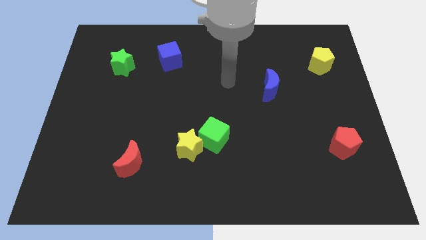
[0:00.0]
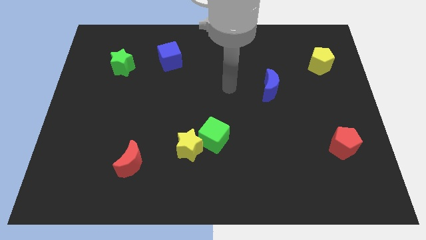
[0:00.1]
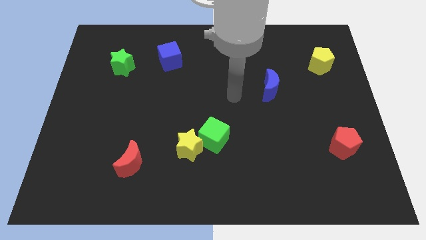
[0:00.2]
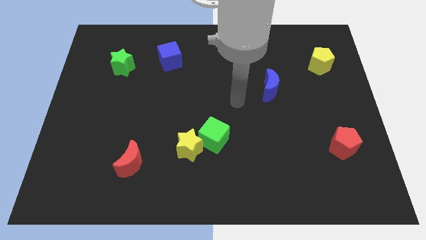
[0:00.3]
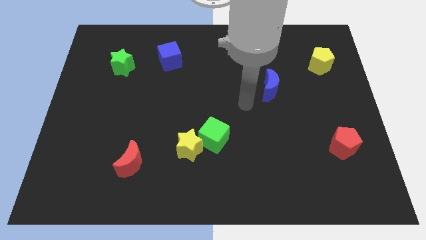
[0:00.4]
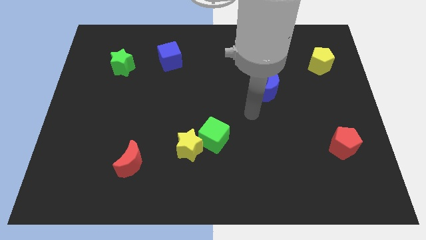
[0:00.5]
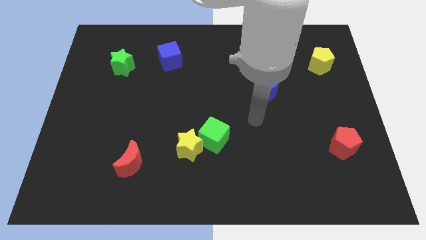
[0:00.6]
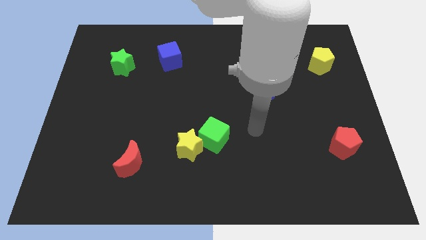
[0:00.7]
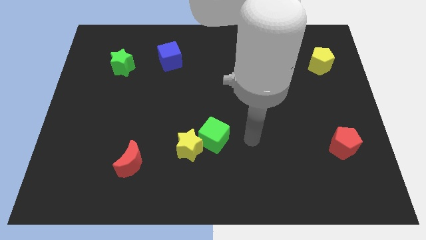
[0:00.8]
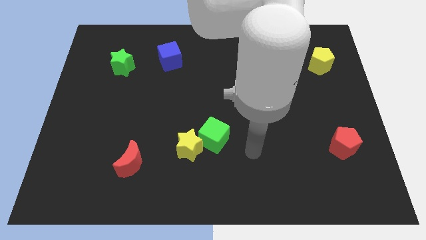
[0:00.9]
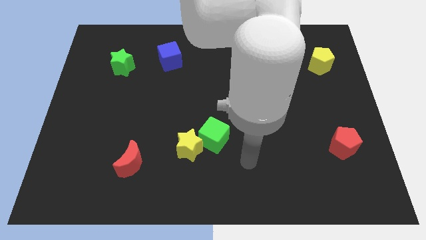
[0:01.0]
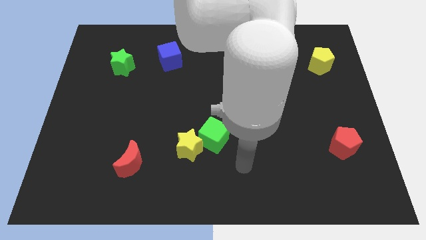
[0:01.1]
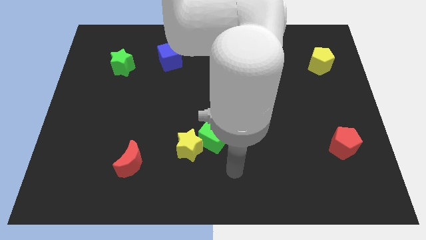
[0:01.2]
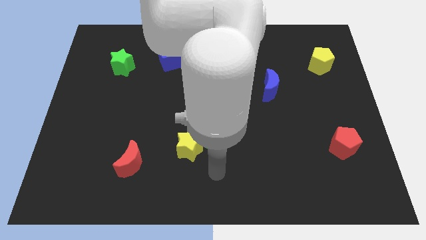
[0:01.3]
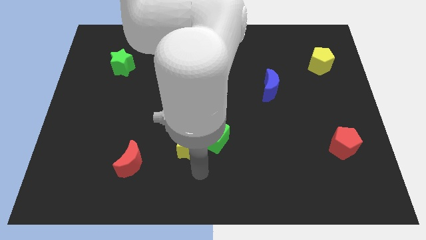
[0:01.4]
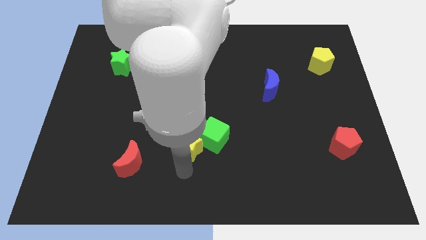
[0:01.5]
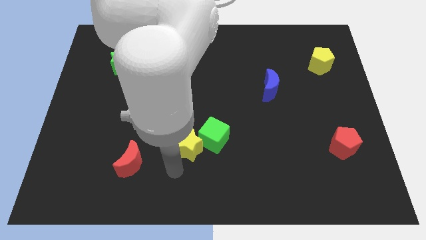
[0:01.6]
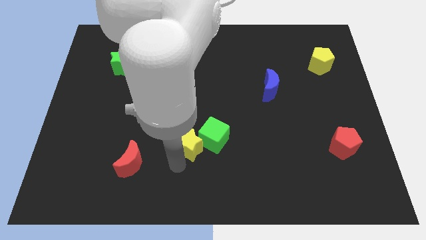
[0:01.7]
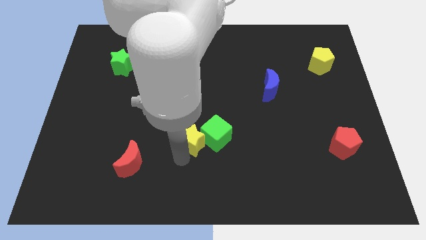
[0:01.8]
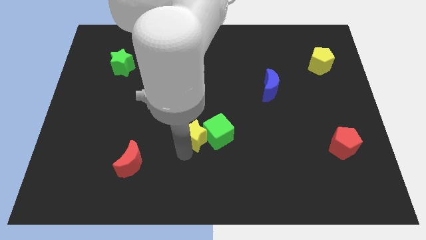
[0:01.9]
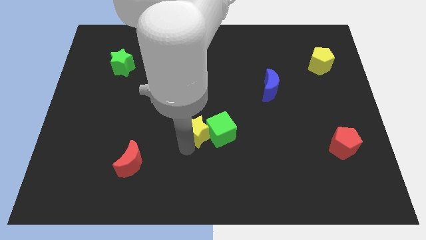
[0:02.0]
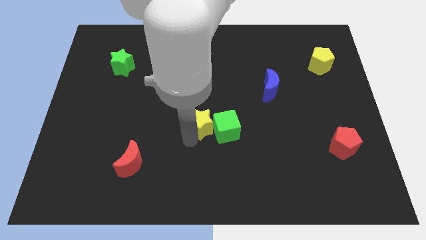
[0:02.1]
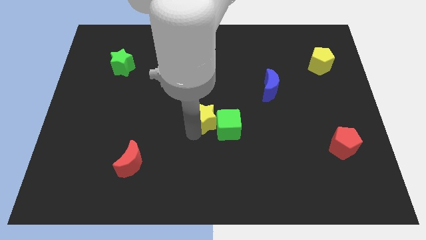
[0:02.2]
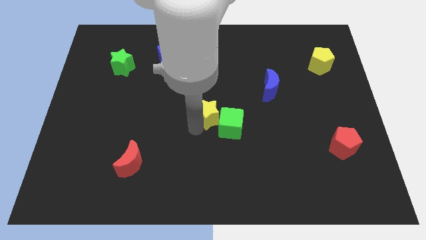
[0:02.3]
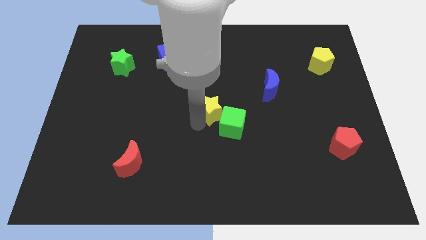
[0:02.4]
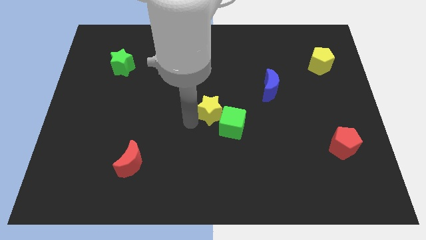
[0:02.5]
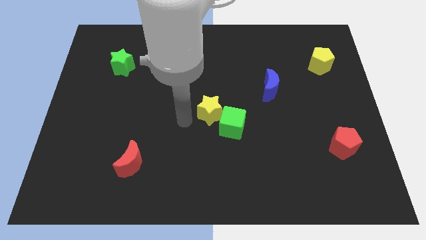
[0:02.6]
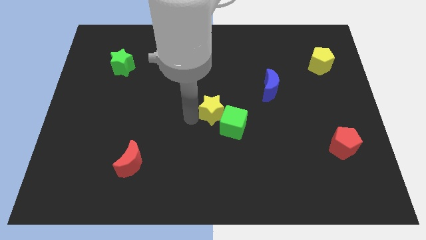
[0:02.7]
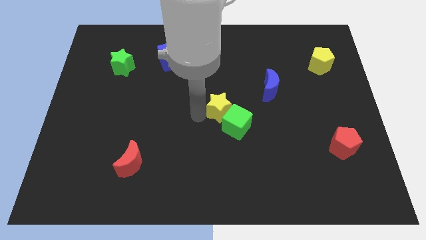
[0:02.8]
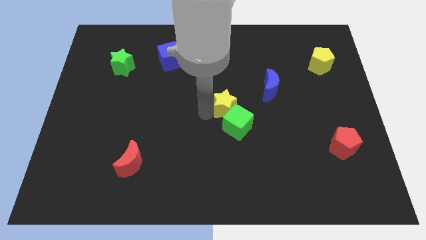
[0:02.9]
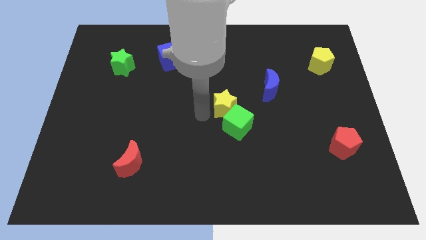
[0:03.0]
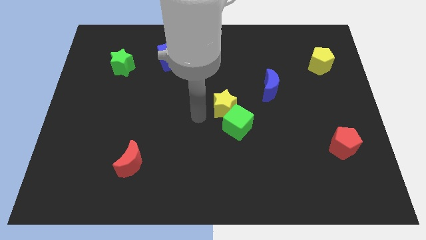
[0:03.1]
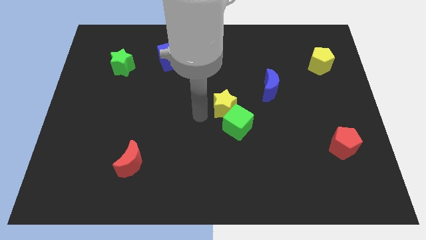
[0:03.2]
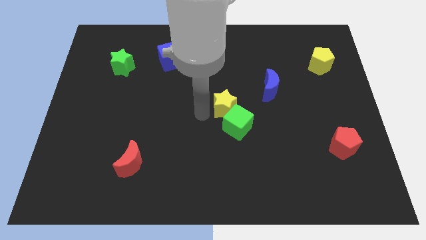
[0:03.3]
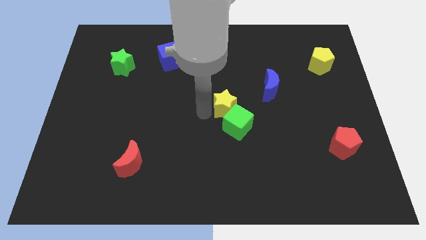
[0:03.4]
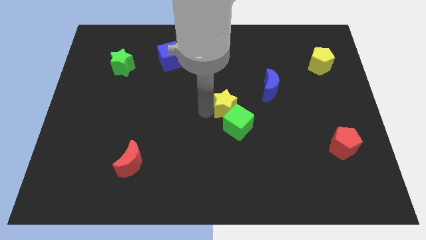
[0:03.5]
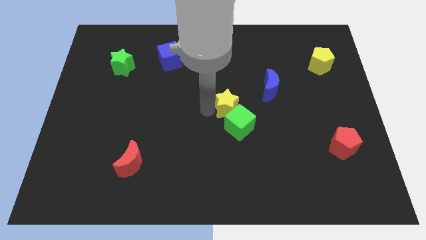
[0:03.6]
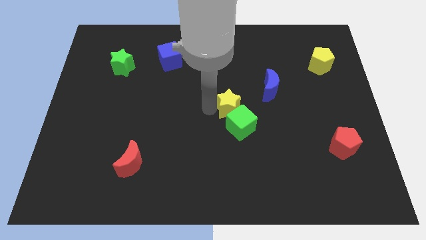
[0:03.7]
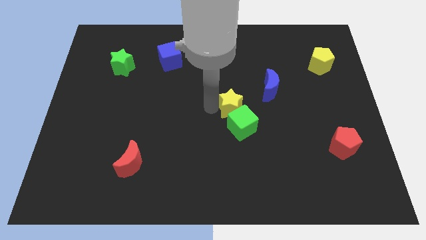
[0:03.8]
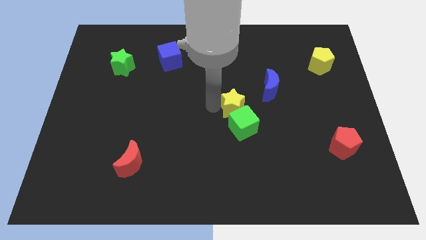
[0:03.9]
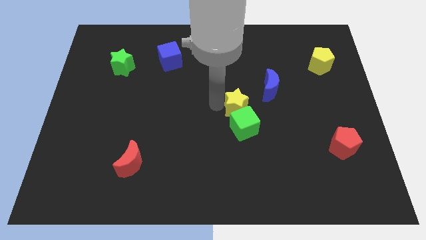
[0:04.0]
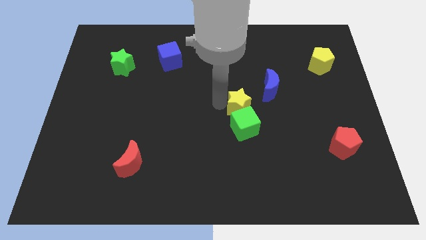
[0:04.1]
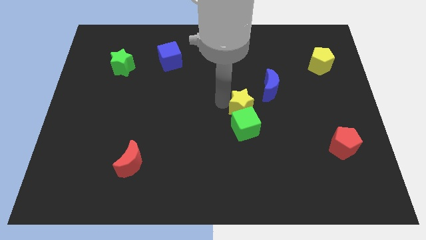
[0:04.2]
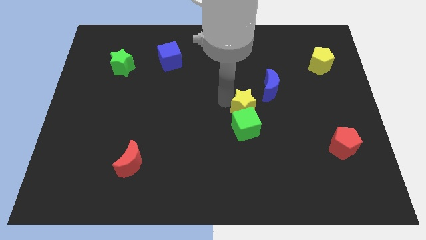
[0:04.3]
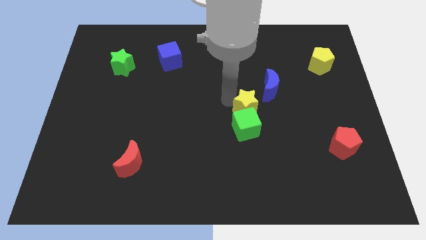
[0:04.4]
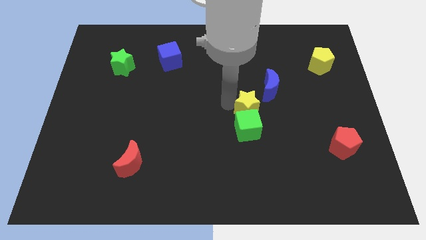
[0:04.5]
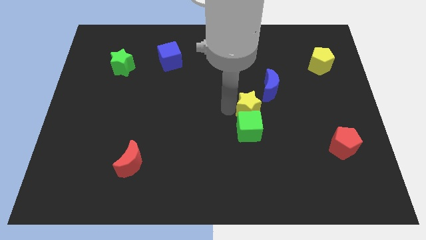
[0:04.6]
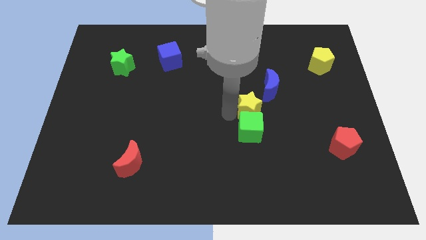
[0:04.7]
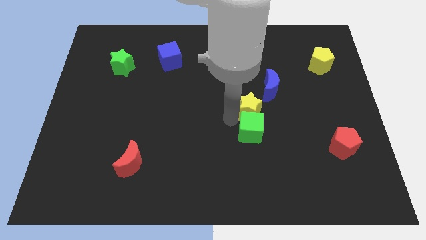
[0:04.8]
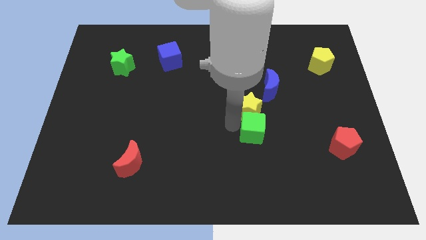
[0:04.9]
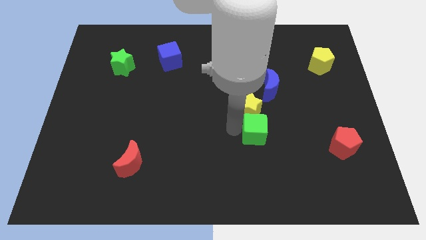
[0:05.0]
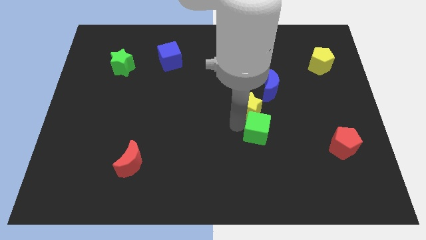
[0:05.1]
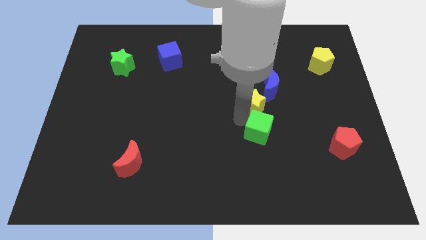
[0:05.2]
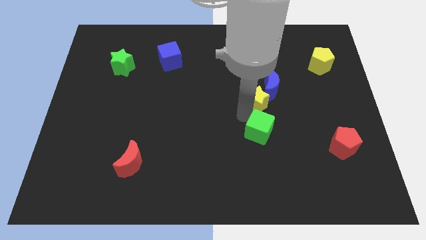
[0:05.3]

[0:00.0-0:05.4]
move the yellow star next to the blue moon

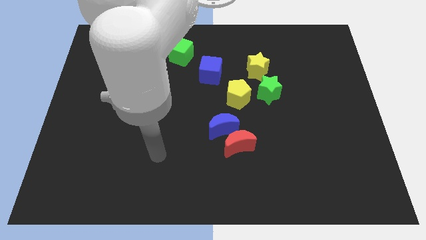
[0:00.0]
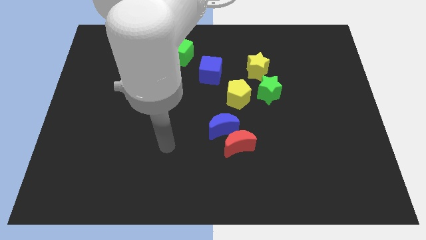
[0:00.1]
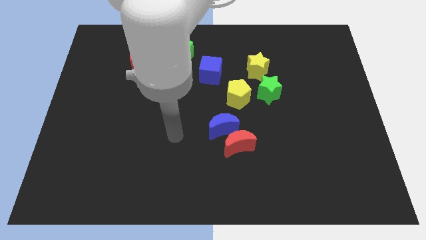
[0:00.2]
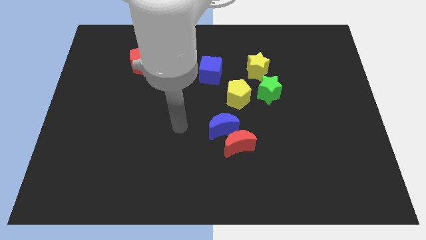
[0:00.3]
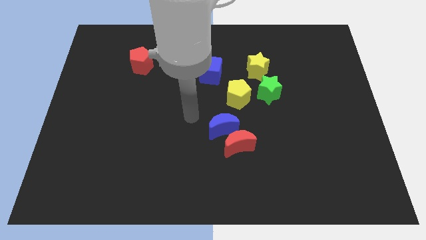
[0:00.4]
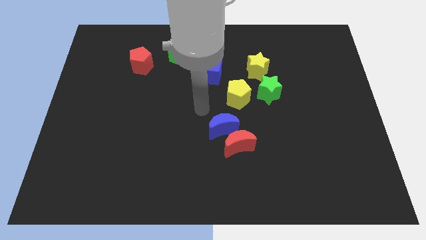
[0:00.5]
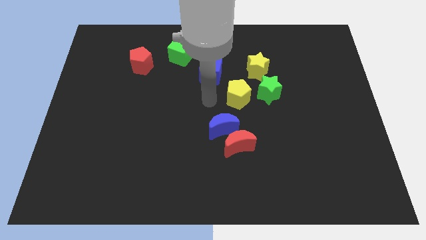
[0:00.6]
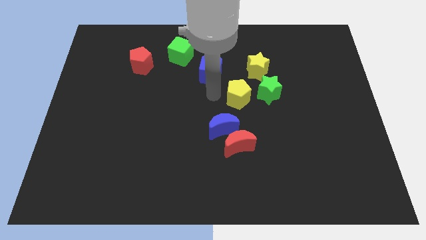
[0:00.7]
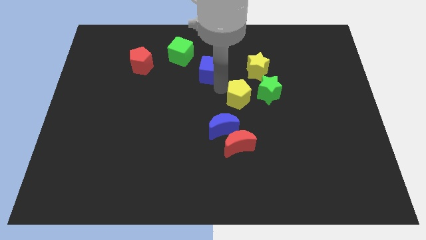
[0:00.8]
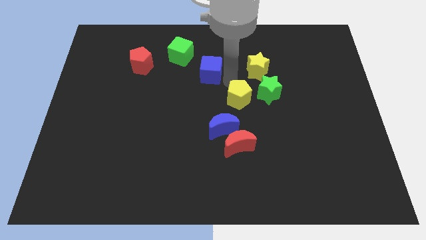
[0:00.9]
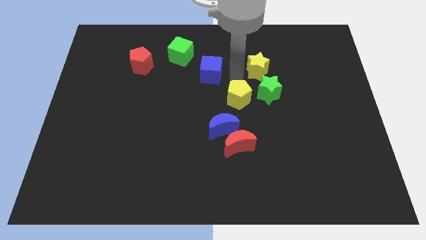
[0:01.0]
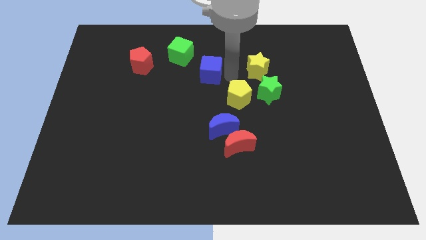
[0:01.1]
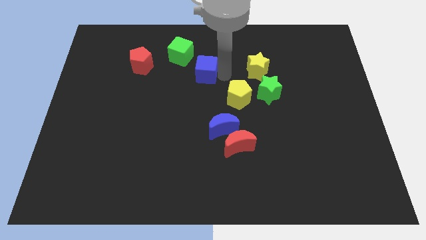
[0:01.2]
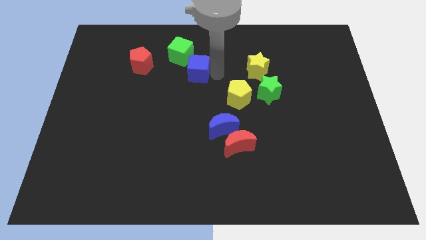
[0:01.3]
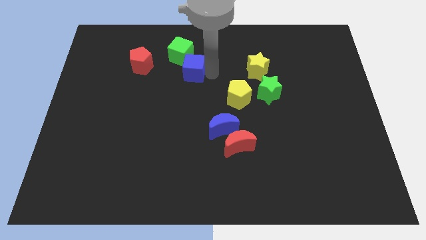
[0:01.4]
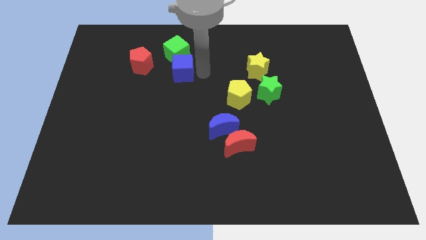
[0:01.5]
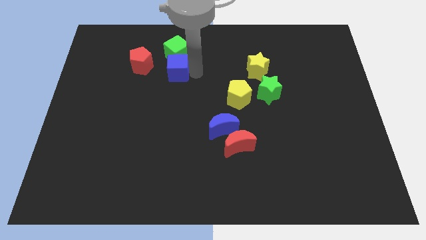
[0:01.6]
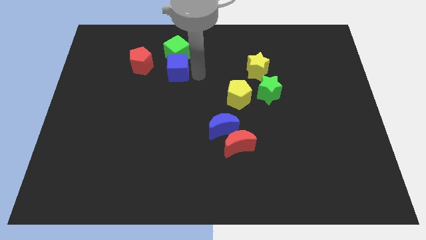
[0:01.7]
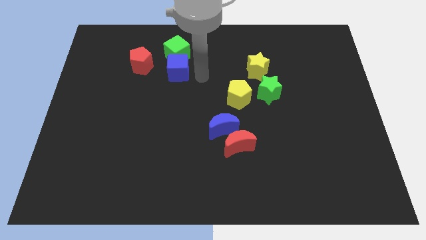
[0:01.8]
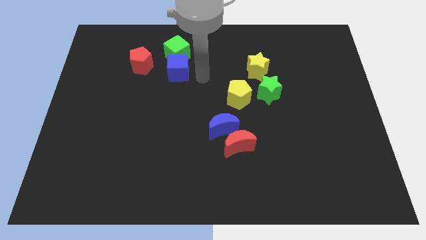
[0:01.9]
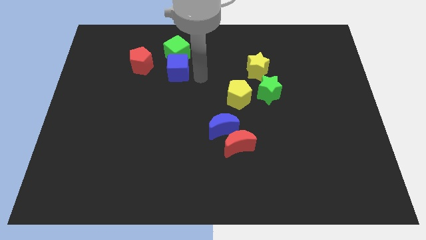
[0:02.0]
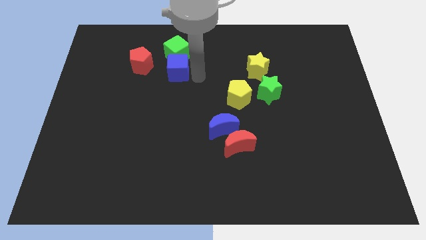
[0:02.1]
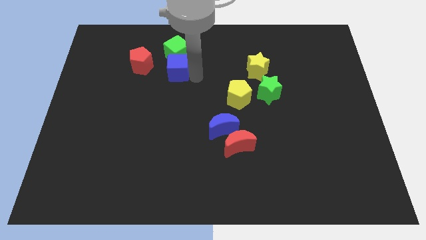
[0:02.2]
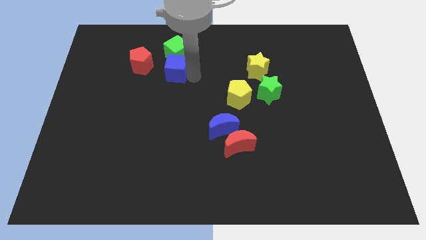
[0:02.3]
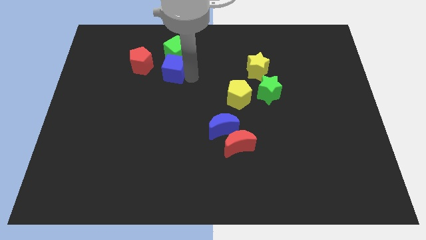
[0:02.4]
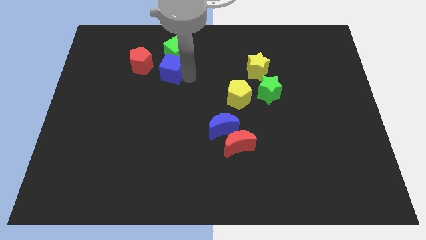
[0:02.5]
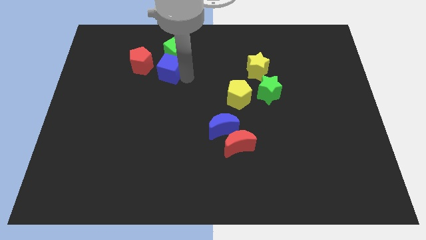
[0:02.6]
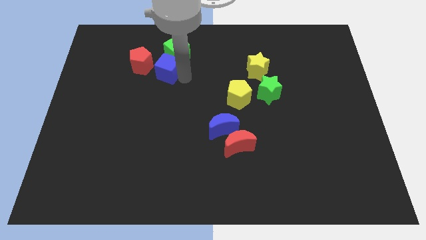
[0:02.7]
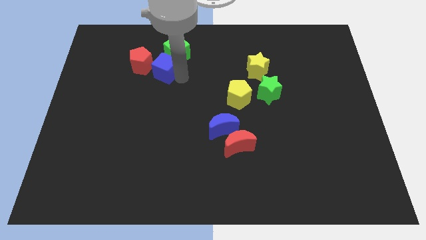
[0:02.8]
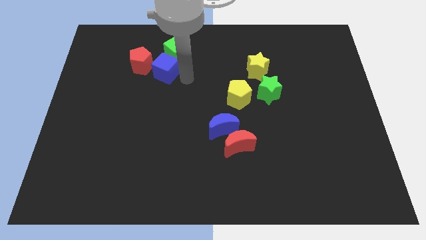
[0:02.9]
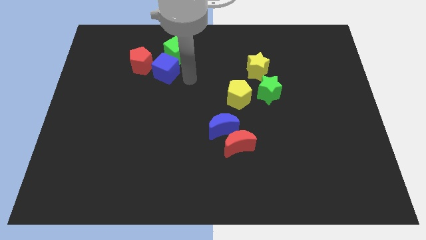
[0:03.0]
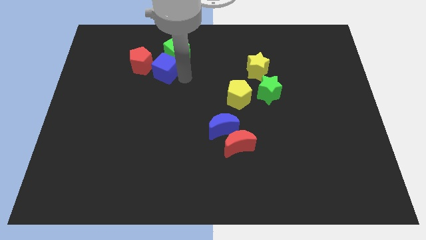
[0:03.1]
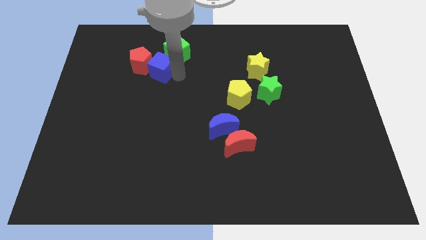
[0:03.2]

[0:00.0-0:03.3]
slide the blue cube next to the red pentagon
